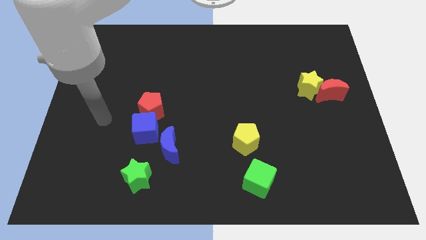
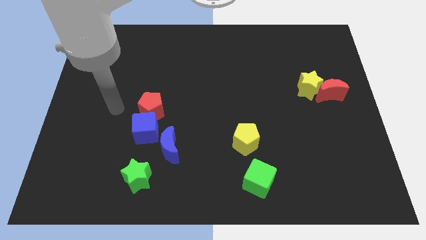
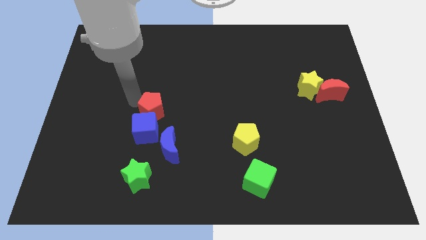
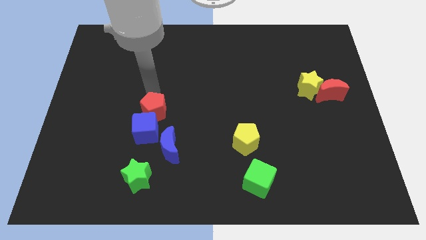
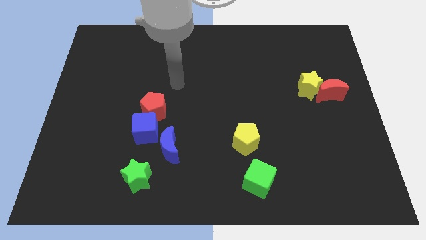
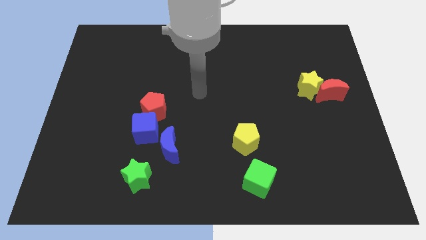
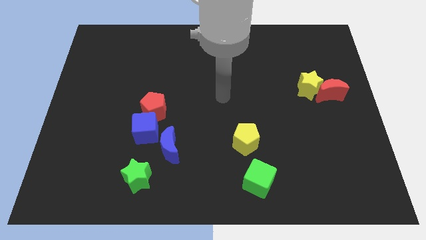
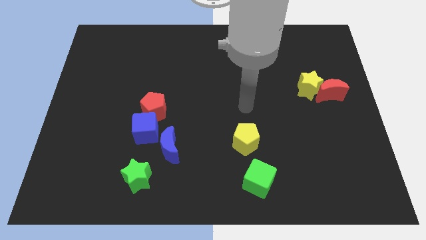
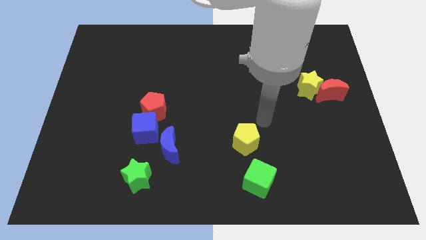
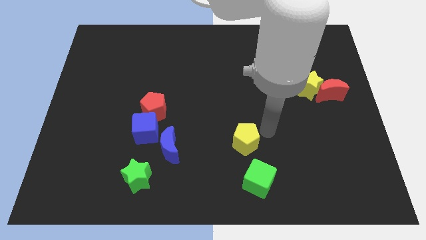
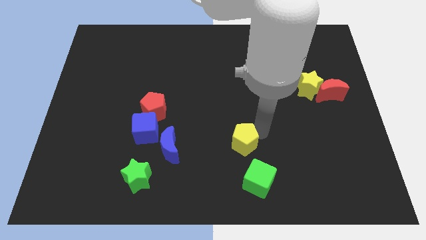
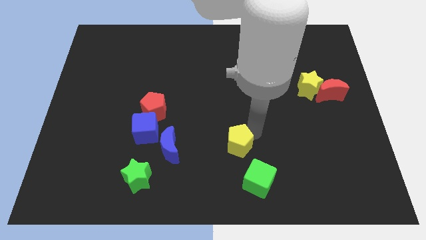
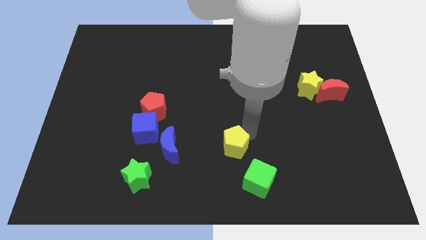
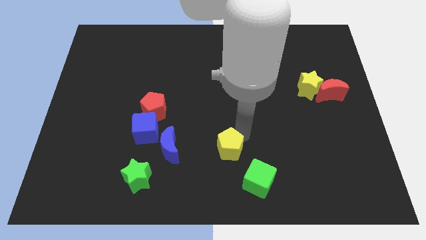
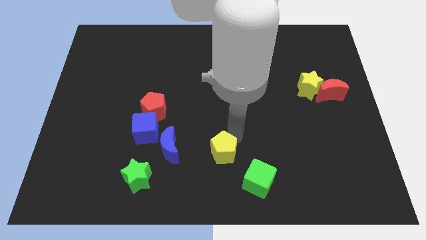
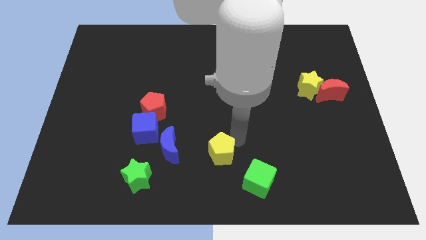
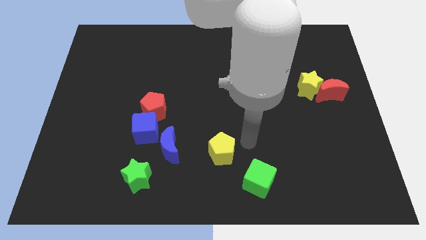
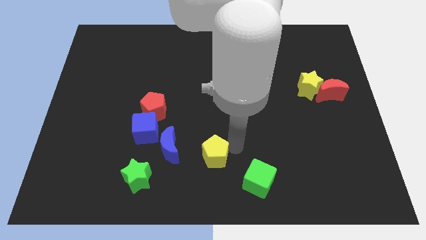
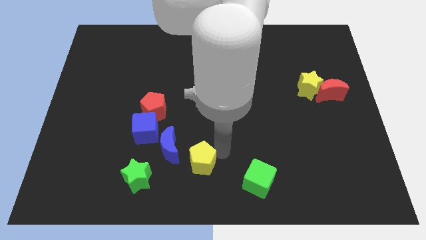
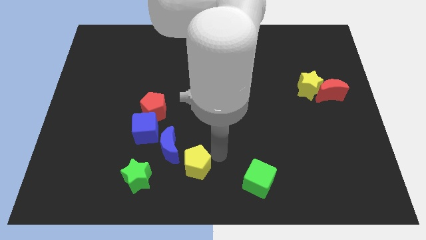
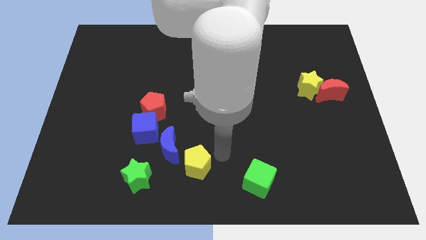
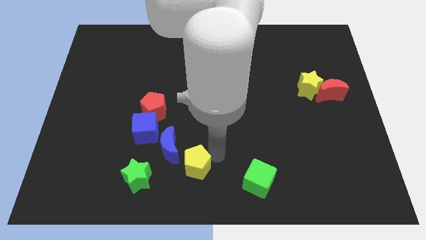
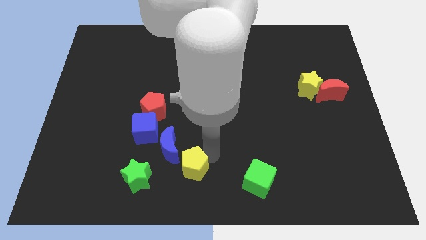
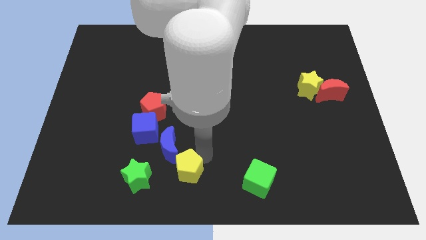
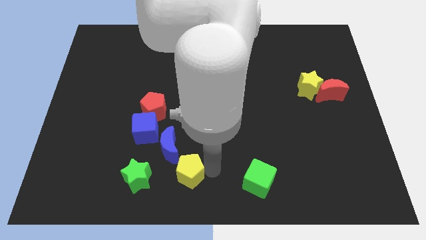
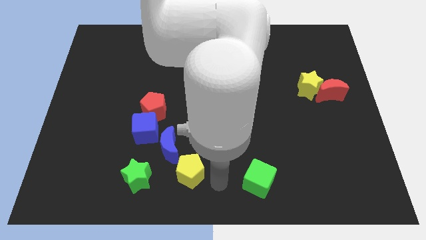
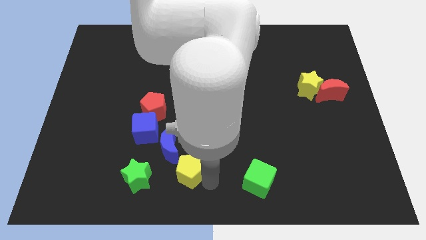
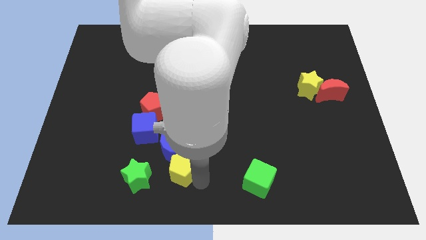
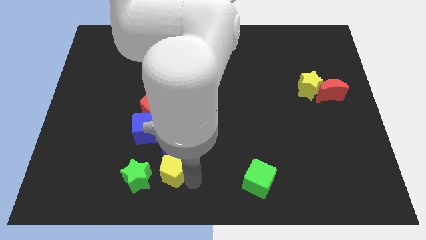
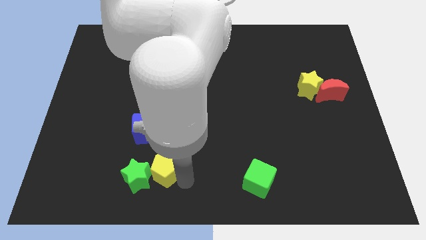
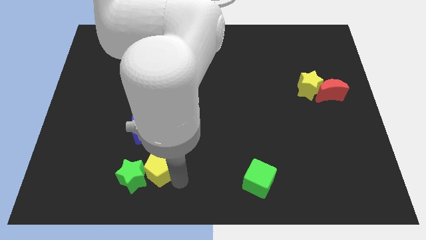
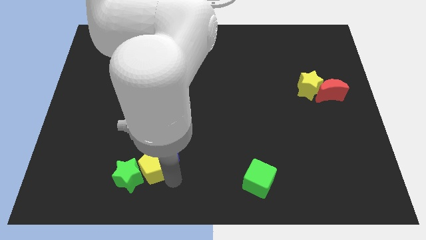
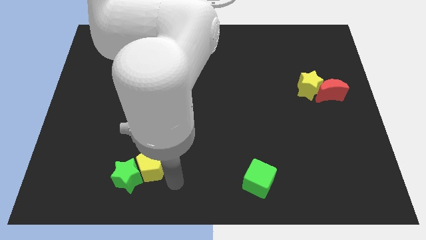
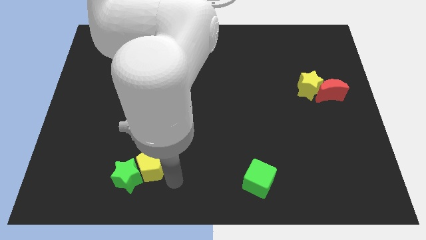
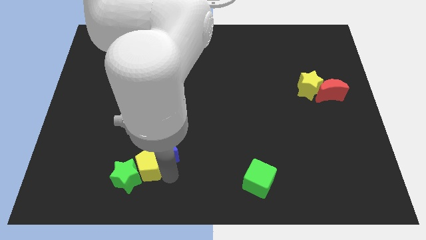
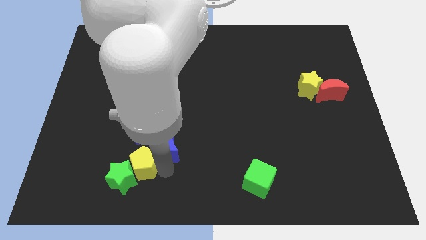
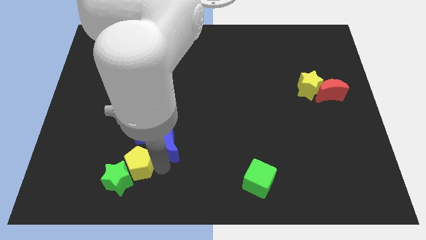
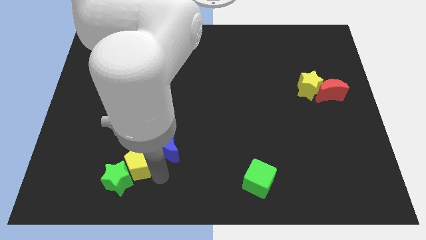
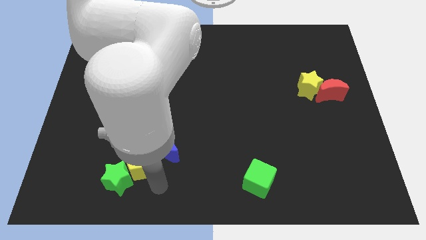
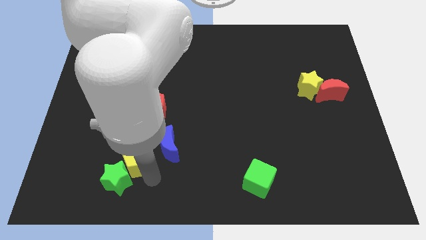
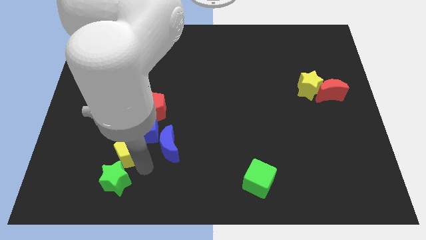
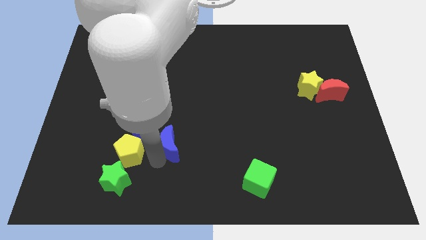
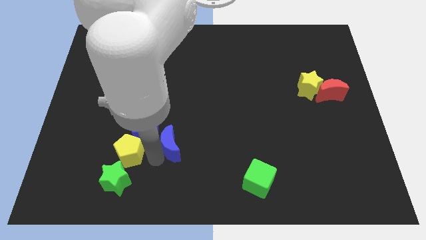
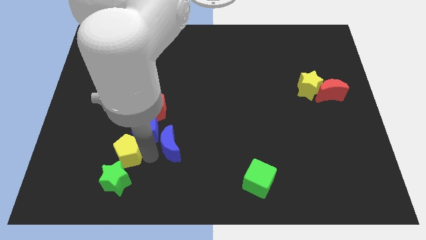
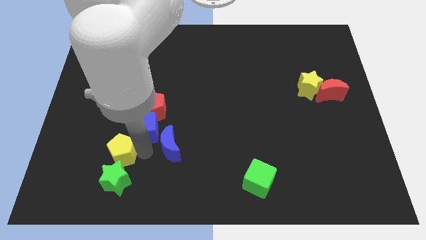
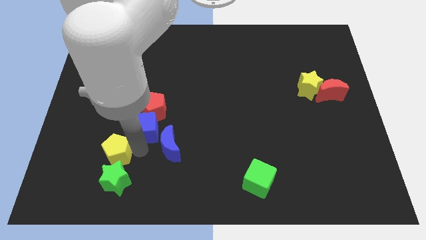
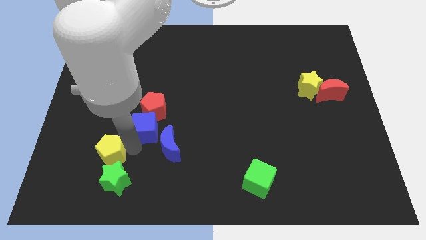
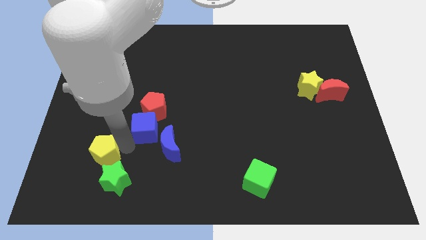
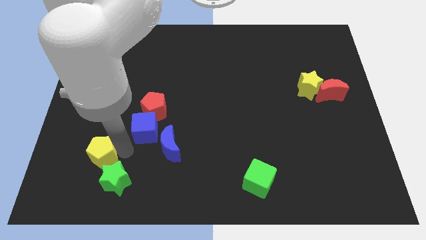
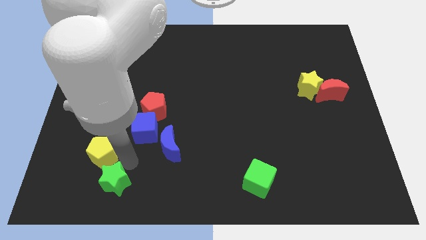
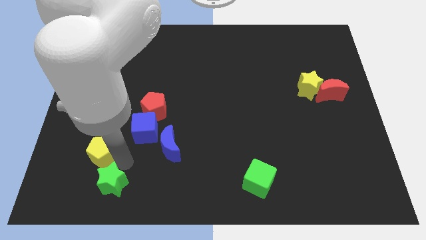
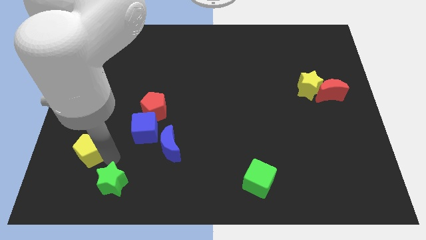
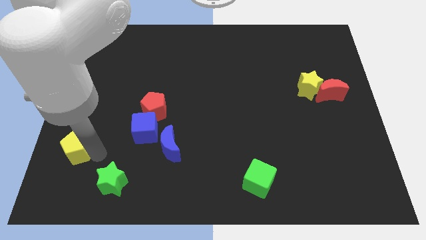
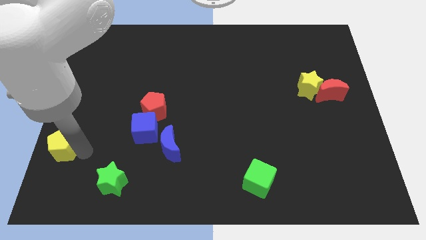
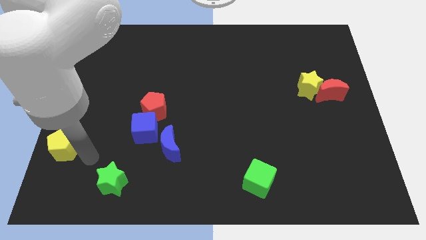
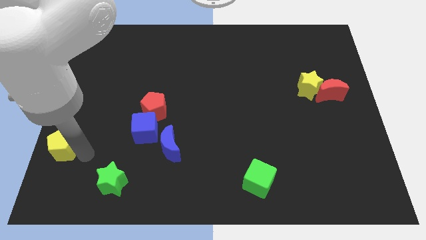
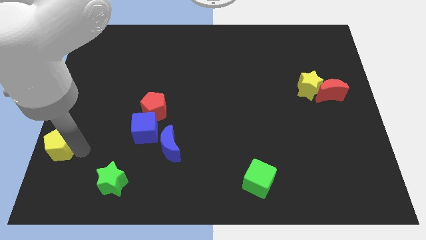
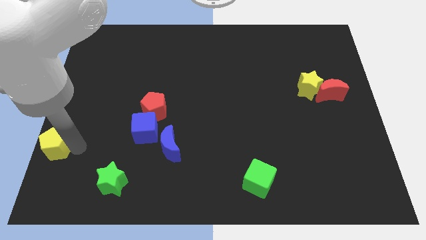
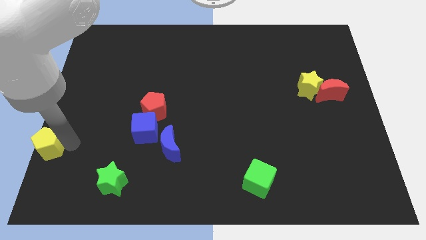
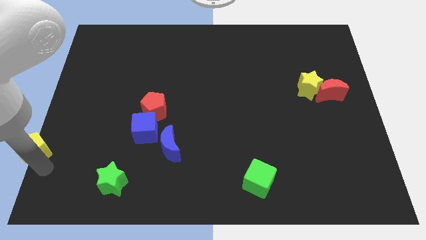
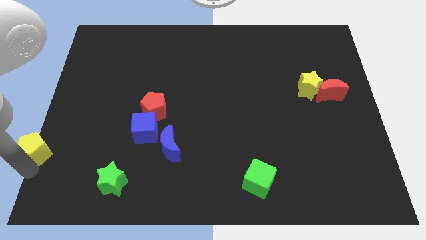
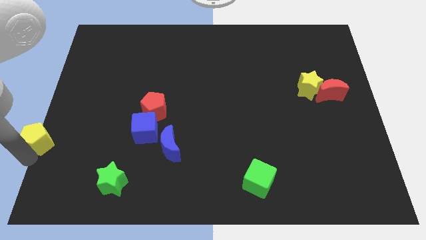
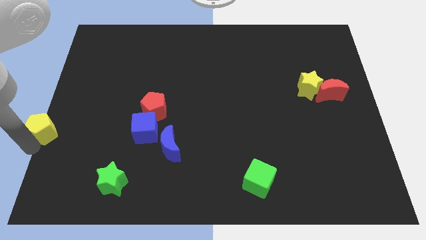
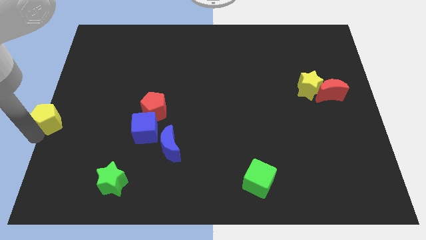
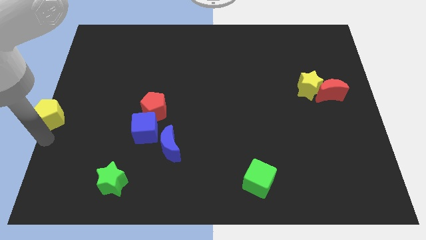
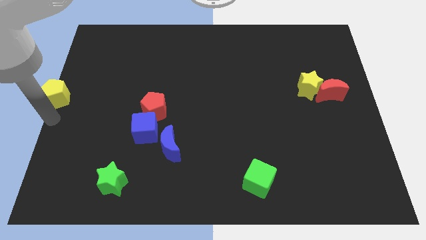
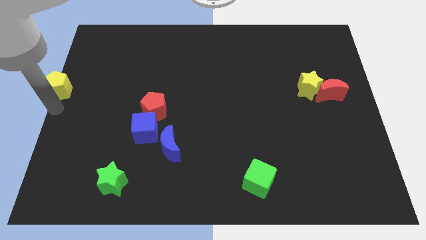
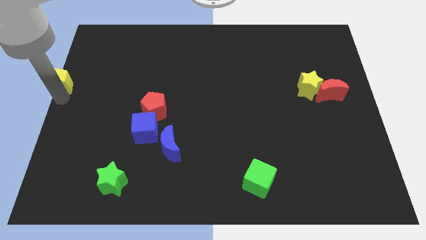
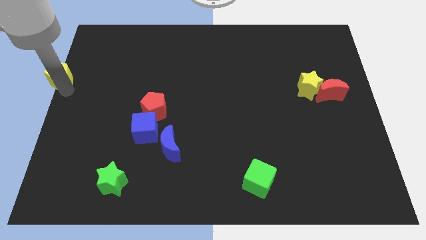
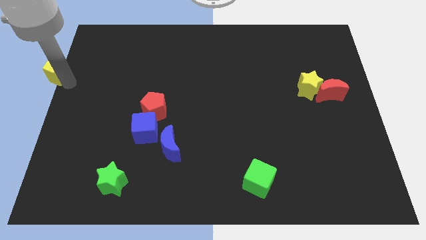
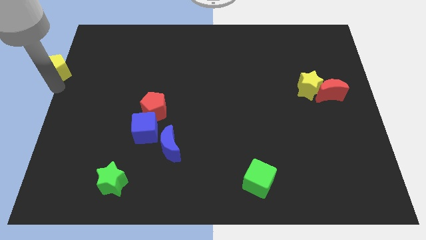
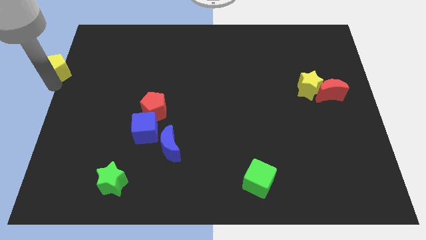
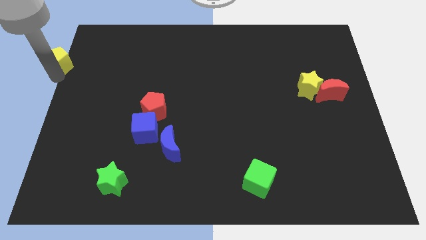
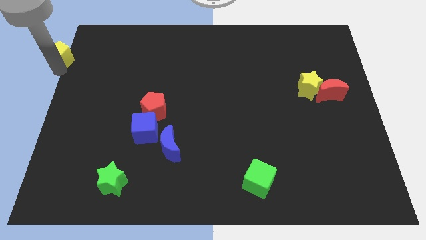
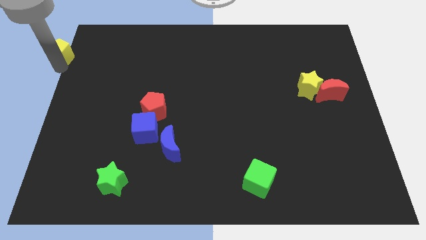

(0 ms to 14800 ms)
put the yellow pentagon to the top left of the board
